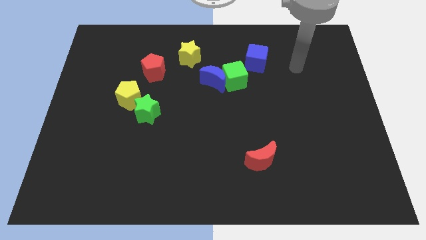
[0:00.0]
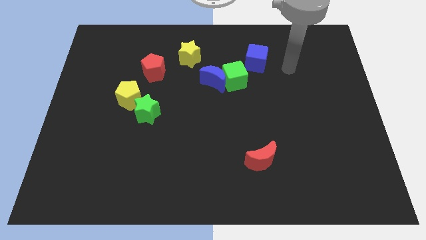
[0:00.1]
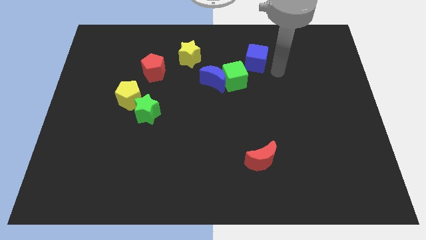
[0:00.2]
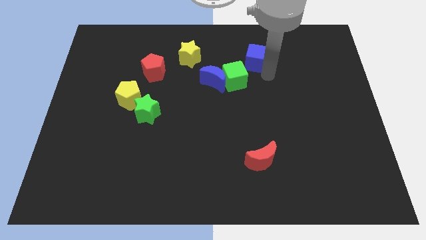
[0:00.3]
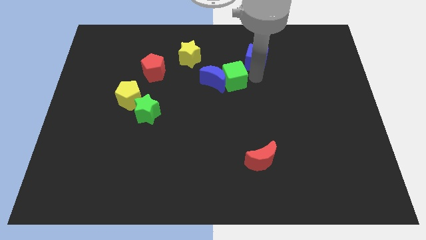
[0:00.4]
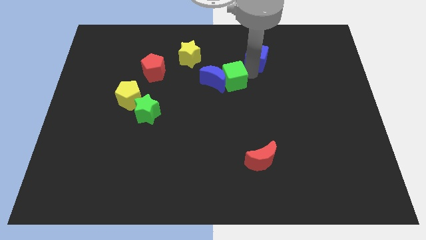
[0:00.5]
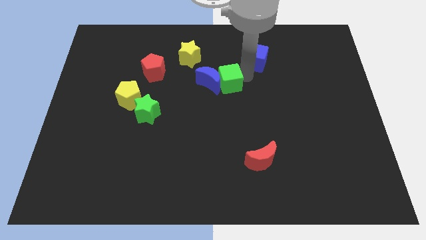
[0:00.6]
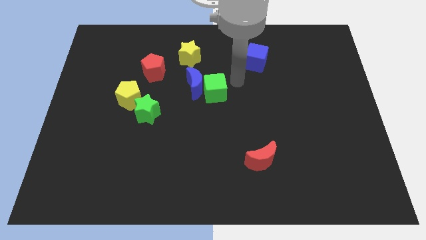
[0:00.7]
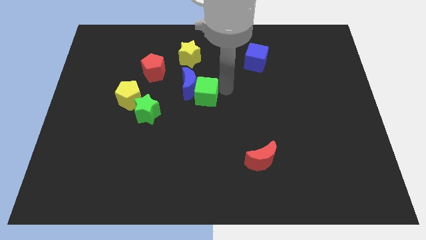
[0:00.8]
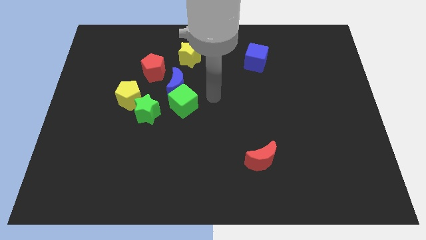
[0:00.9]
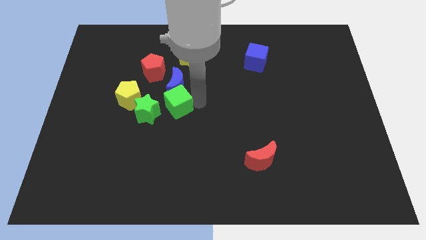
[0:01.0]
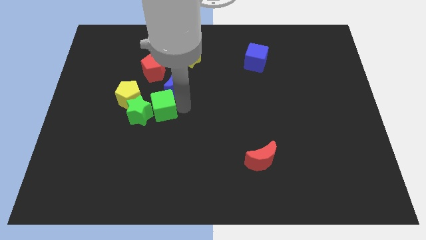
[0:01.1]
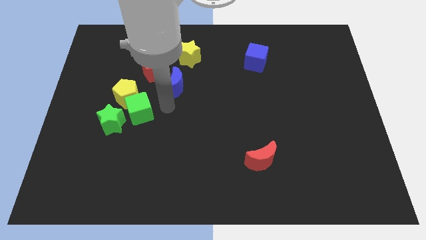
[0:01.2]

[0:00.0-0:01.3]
move the blue moon away from the green cube

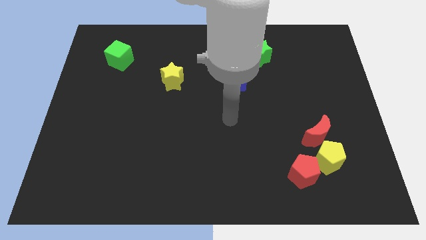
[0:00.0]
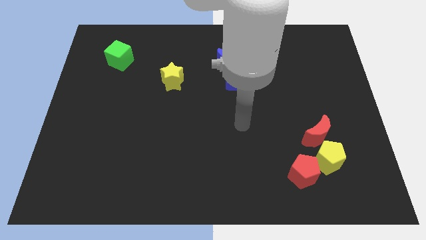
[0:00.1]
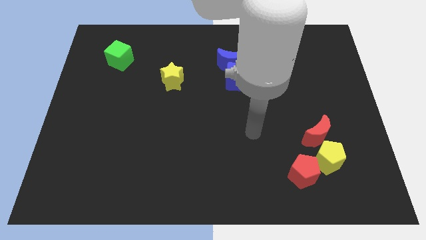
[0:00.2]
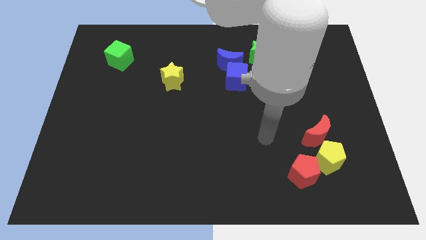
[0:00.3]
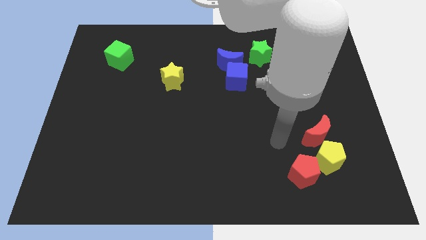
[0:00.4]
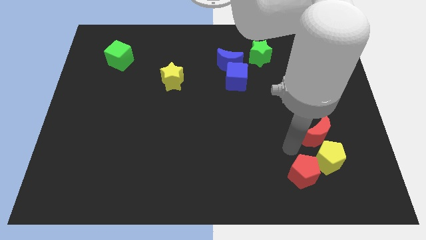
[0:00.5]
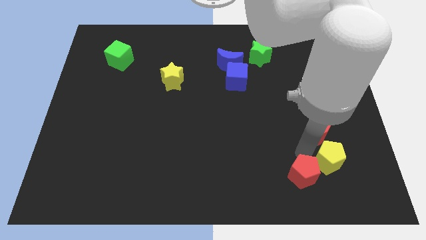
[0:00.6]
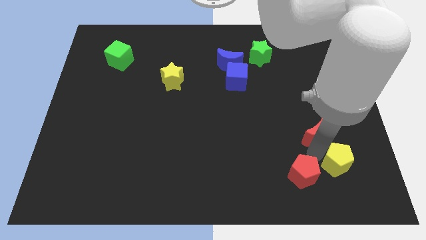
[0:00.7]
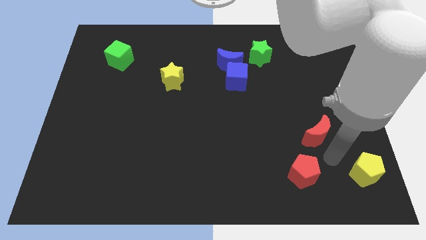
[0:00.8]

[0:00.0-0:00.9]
pull the red moon apart from the yellow pentagon

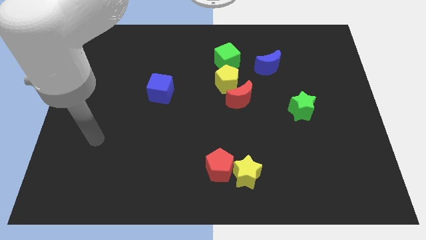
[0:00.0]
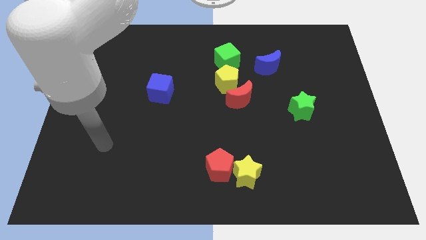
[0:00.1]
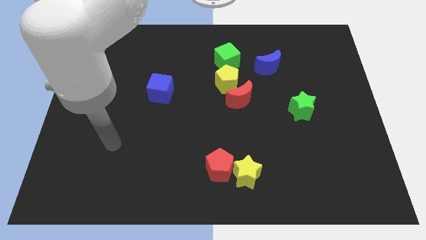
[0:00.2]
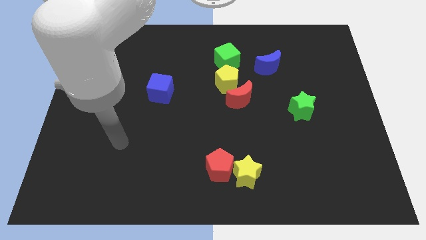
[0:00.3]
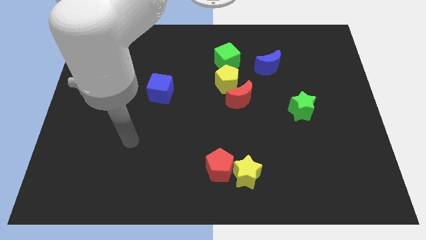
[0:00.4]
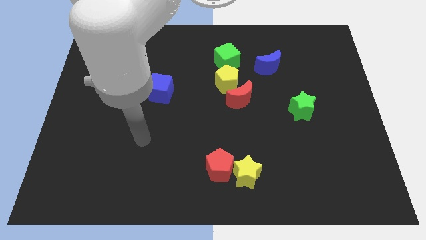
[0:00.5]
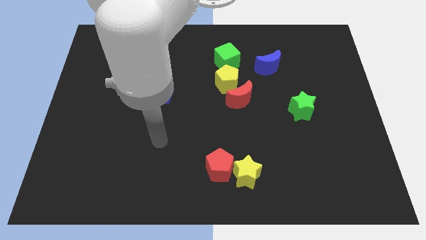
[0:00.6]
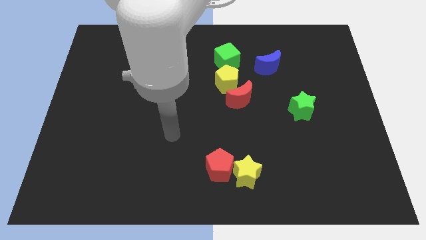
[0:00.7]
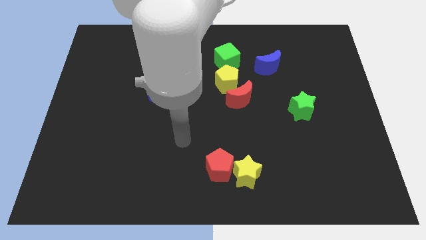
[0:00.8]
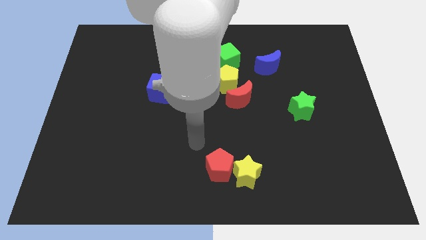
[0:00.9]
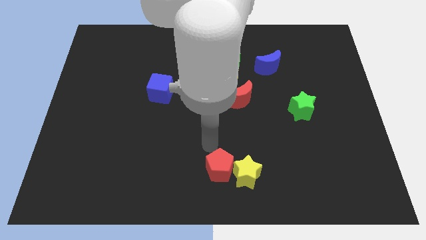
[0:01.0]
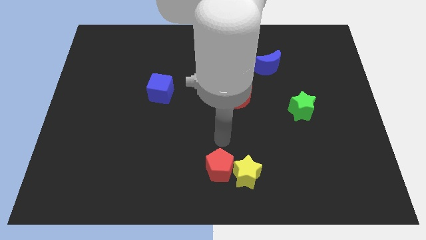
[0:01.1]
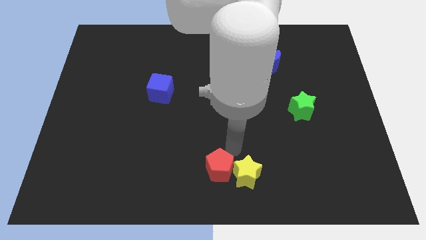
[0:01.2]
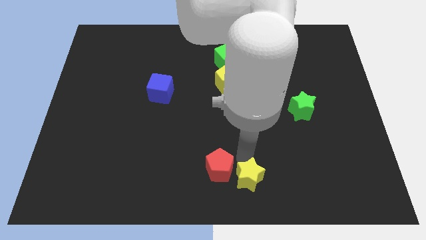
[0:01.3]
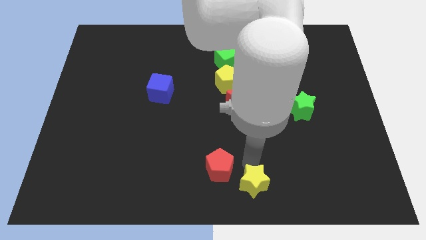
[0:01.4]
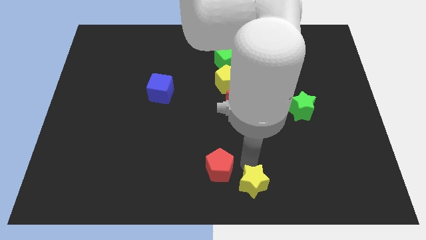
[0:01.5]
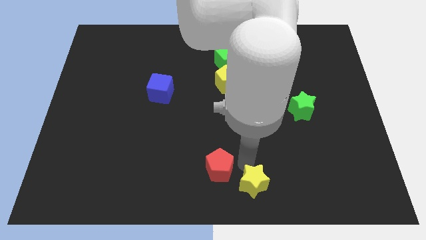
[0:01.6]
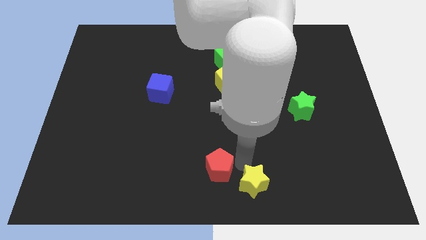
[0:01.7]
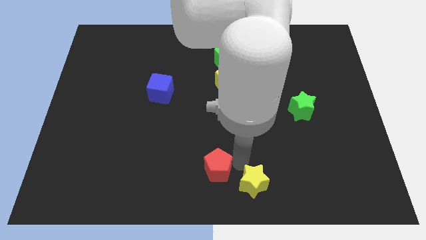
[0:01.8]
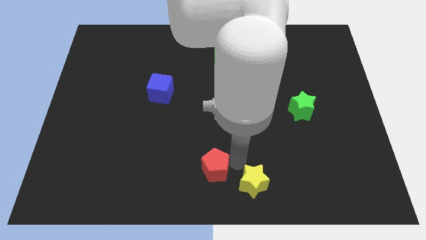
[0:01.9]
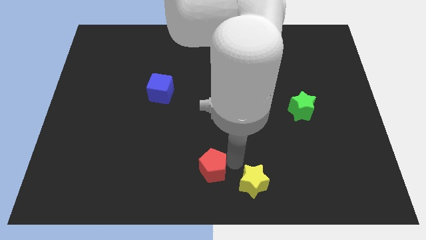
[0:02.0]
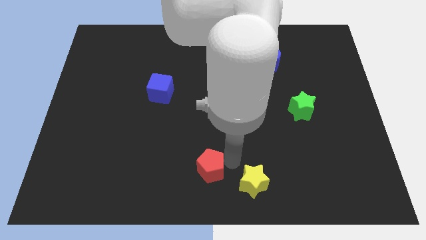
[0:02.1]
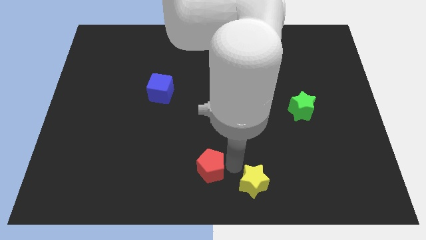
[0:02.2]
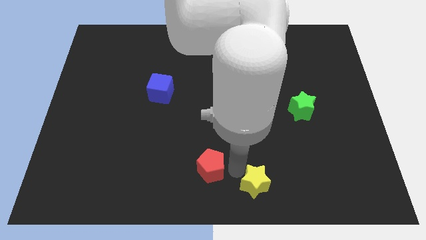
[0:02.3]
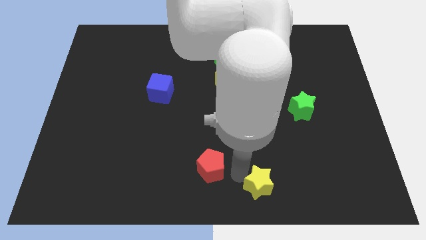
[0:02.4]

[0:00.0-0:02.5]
pull the red pentagon apart from the yellow star

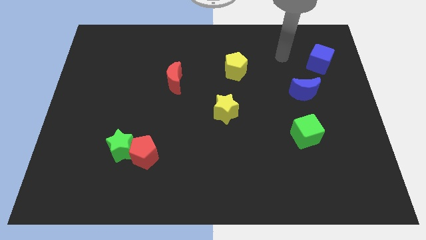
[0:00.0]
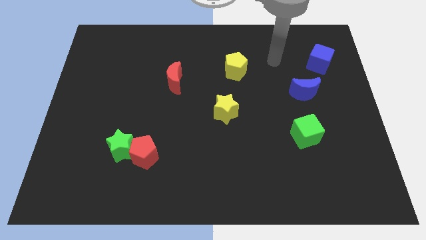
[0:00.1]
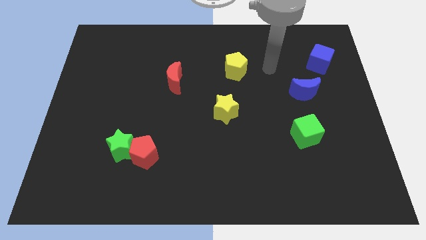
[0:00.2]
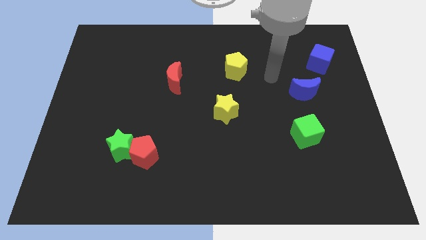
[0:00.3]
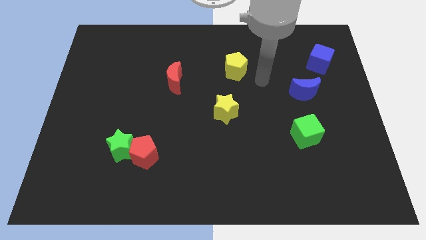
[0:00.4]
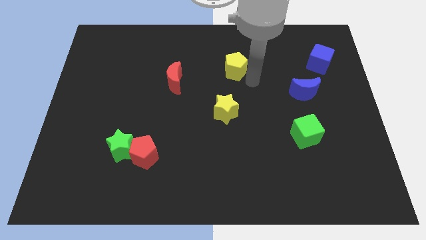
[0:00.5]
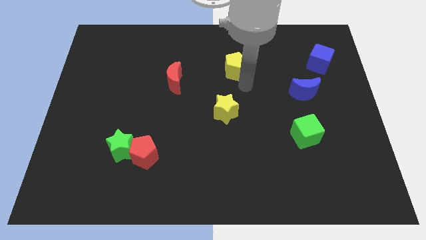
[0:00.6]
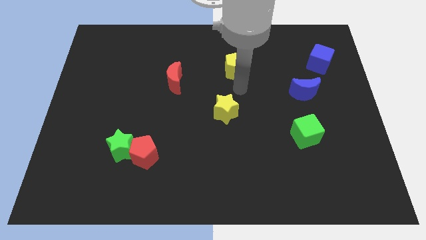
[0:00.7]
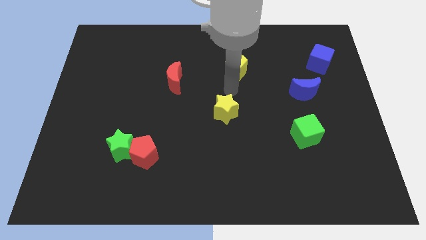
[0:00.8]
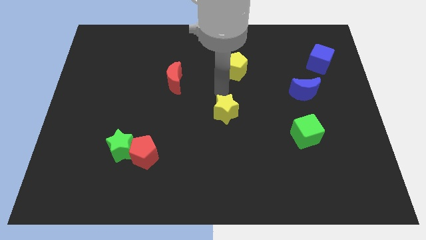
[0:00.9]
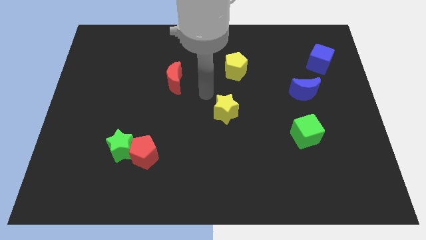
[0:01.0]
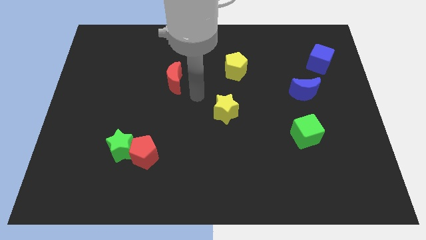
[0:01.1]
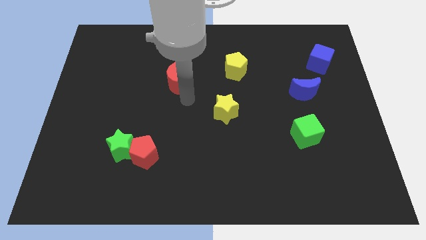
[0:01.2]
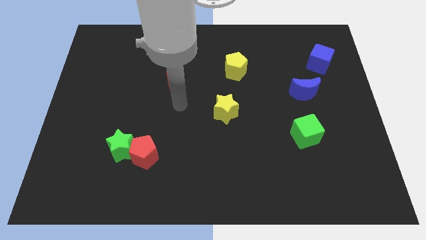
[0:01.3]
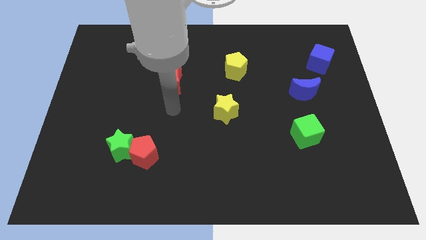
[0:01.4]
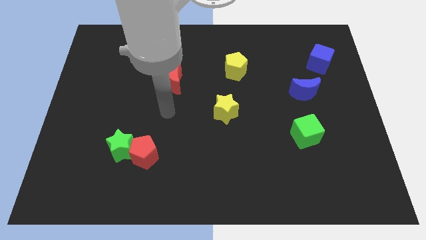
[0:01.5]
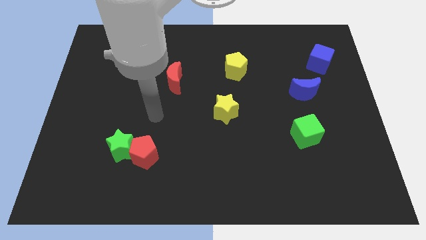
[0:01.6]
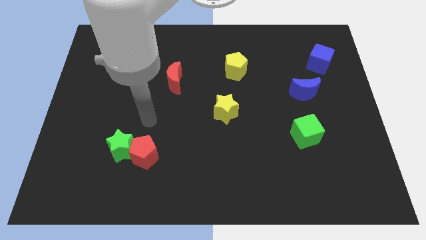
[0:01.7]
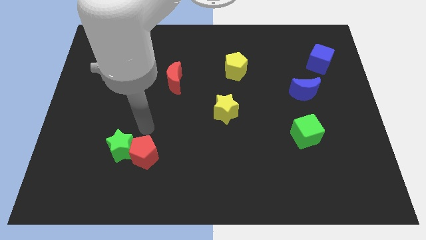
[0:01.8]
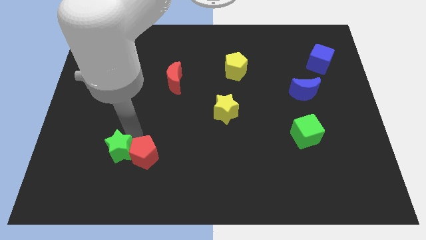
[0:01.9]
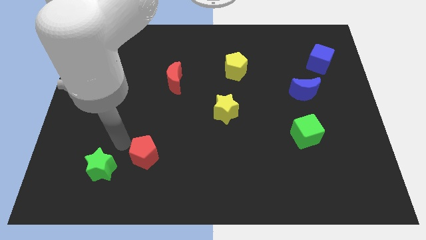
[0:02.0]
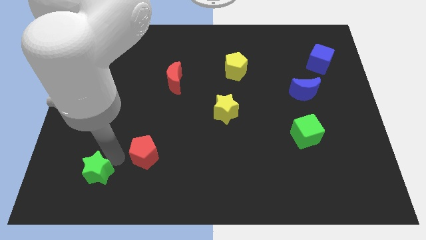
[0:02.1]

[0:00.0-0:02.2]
separate the red pentagon from the green star

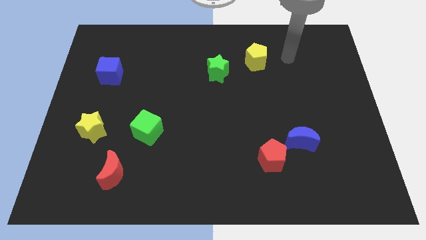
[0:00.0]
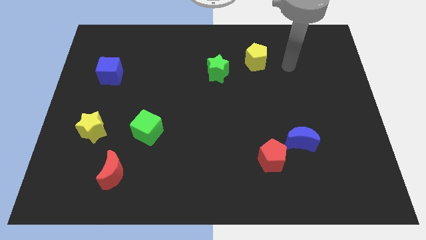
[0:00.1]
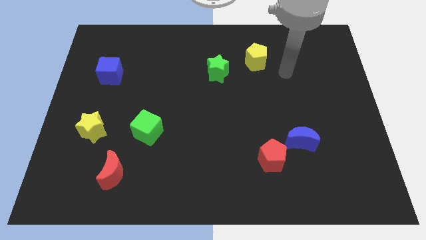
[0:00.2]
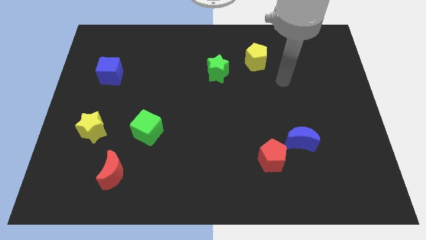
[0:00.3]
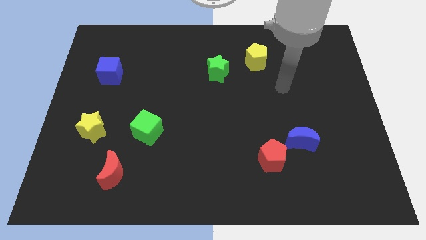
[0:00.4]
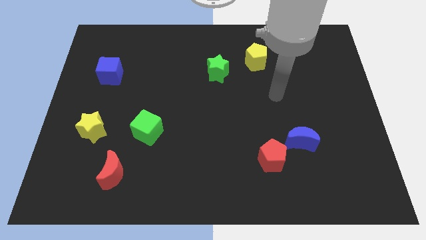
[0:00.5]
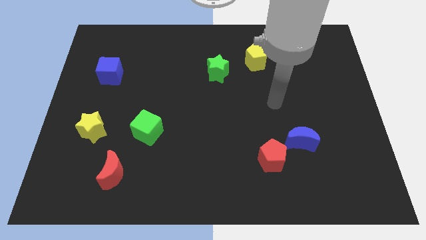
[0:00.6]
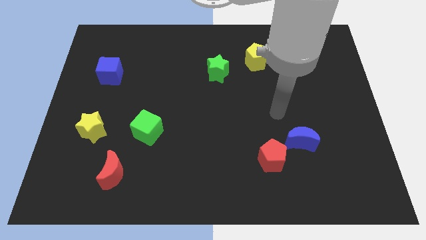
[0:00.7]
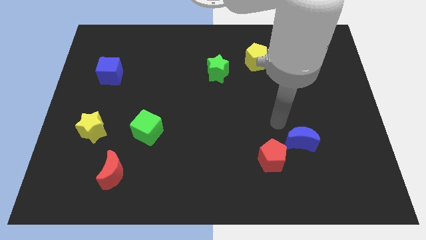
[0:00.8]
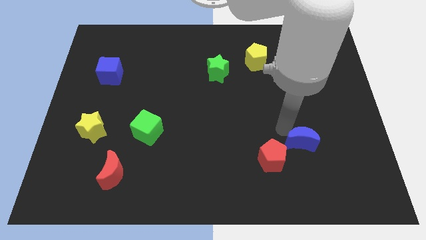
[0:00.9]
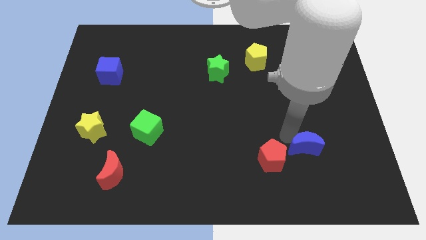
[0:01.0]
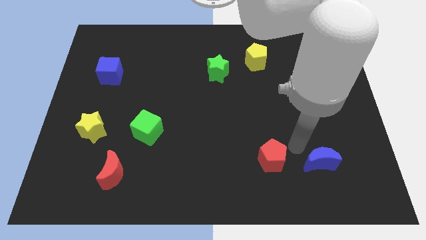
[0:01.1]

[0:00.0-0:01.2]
move the red pentagon away from the blue moon

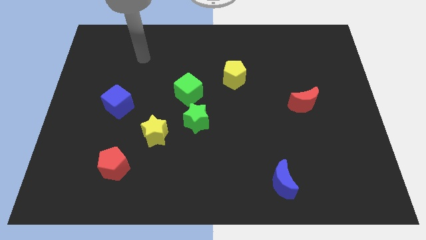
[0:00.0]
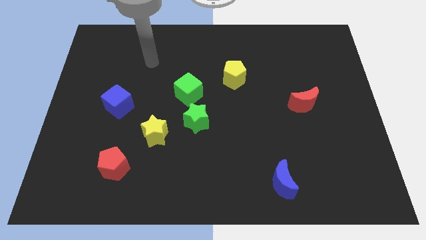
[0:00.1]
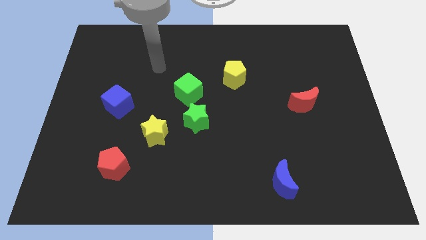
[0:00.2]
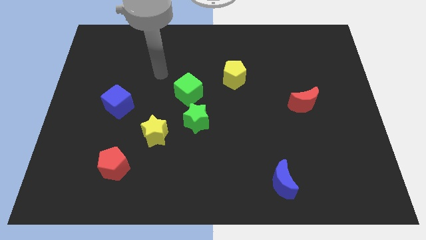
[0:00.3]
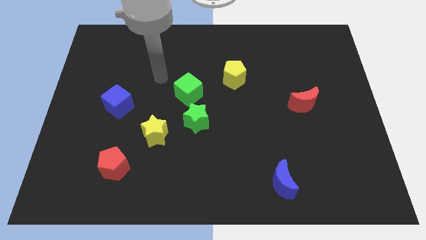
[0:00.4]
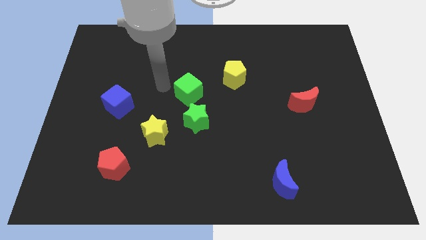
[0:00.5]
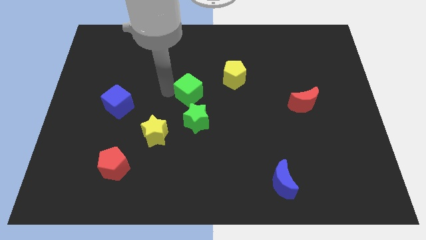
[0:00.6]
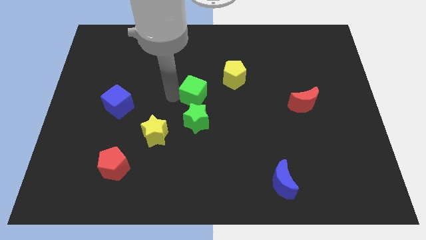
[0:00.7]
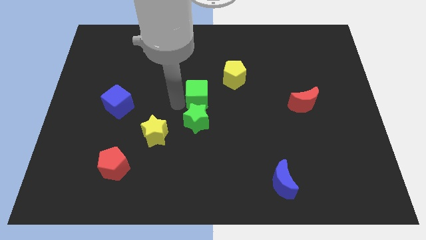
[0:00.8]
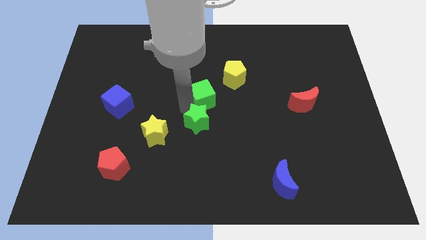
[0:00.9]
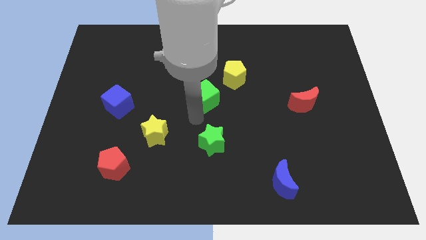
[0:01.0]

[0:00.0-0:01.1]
pull the green cube apart from the green star
